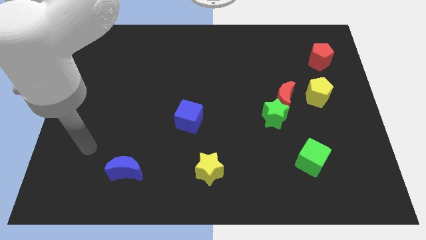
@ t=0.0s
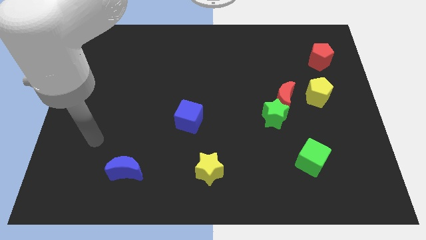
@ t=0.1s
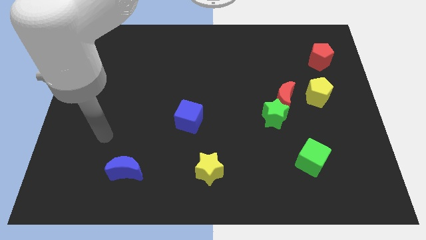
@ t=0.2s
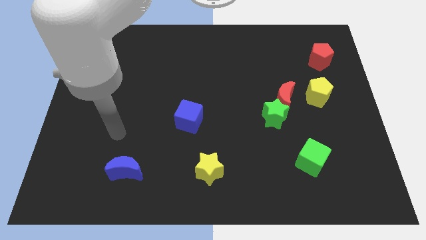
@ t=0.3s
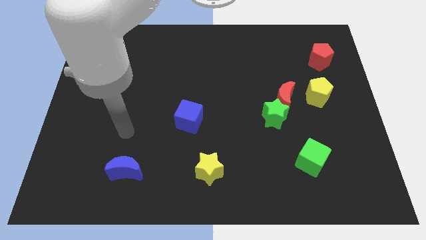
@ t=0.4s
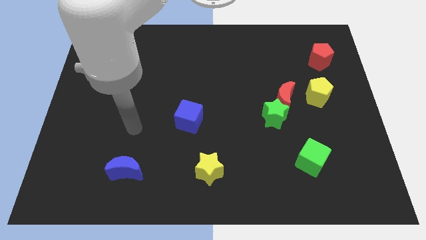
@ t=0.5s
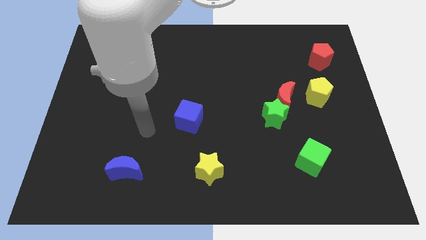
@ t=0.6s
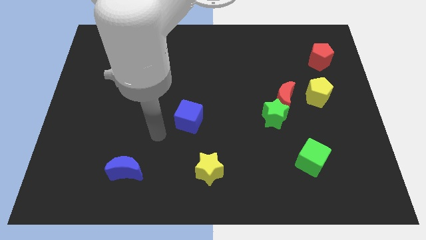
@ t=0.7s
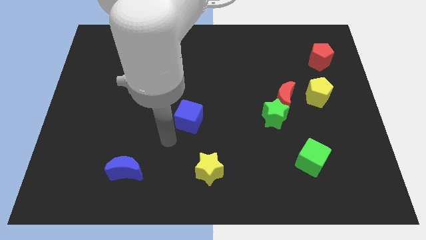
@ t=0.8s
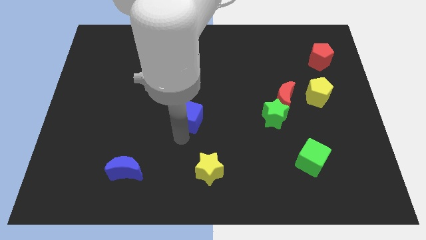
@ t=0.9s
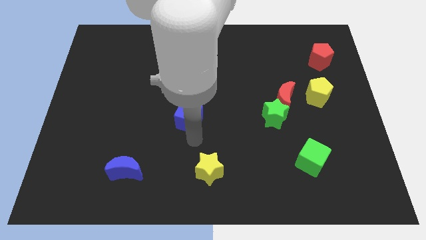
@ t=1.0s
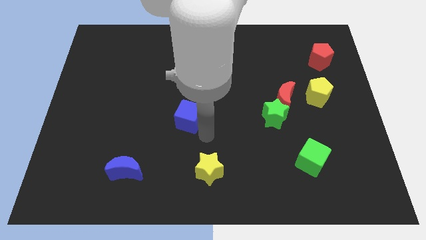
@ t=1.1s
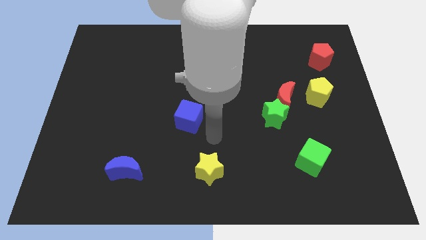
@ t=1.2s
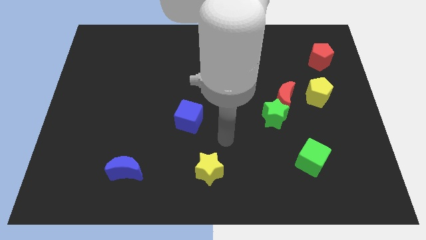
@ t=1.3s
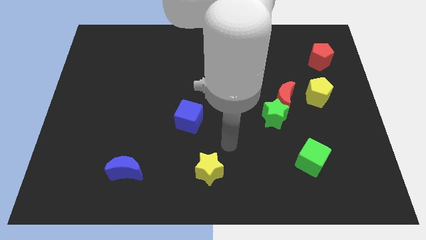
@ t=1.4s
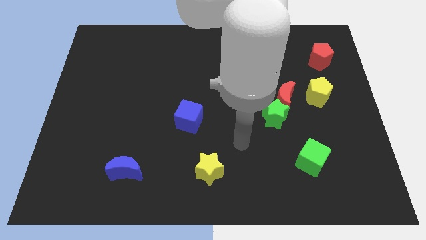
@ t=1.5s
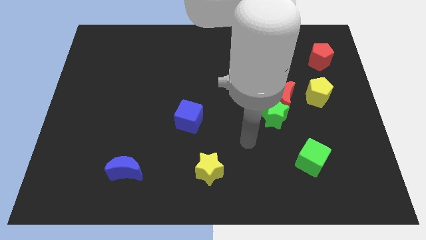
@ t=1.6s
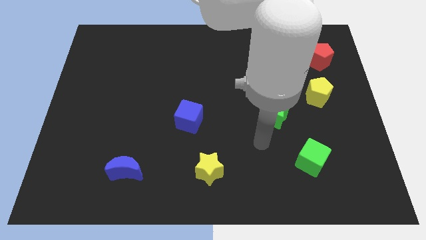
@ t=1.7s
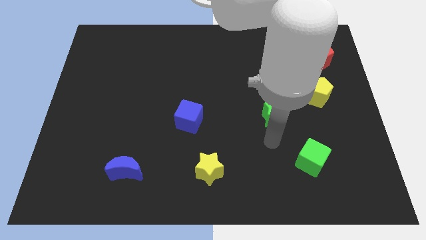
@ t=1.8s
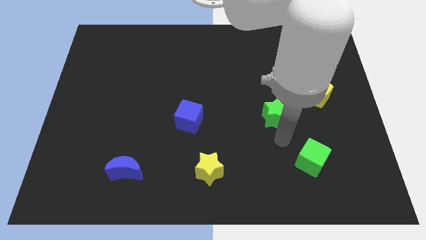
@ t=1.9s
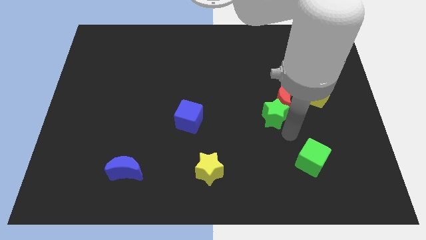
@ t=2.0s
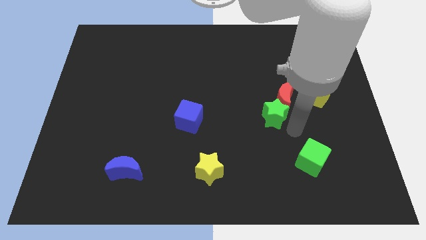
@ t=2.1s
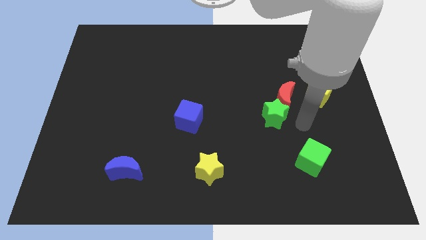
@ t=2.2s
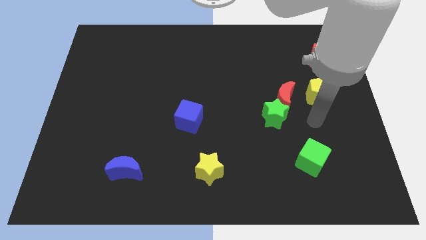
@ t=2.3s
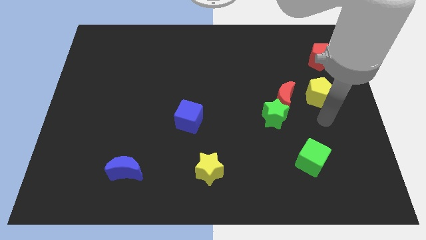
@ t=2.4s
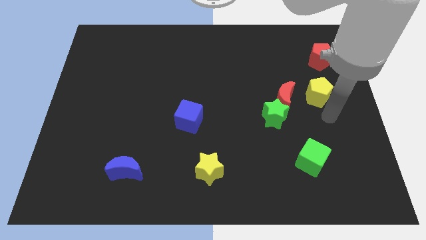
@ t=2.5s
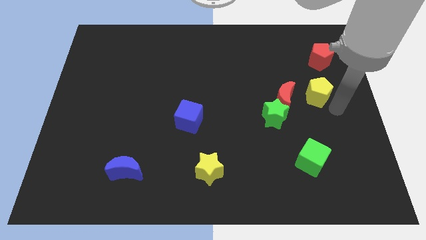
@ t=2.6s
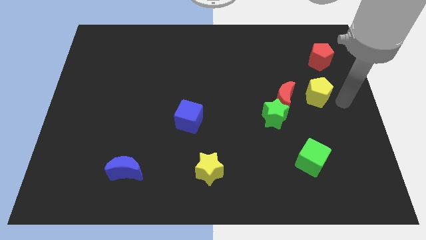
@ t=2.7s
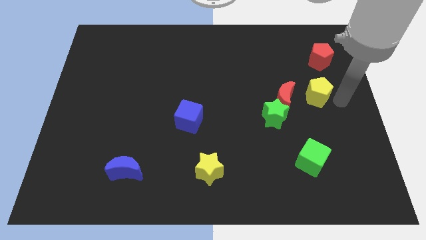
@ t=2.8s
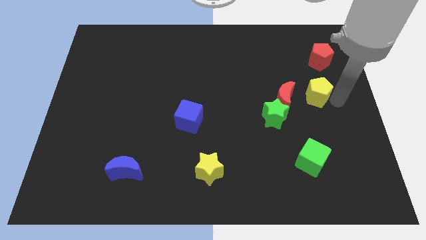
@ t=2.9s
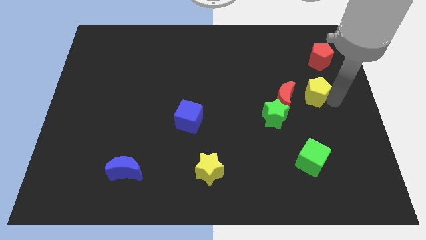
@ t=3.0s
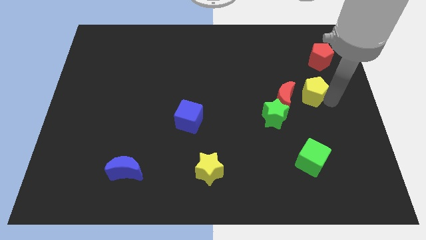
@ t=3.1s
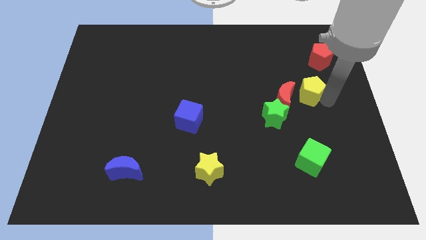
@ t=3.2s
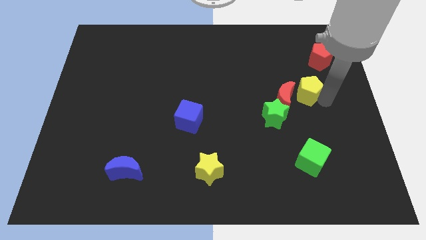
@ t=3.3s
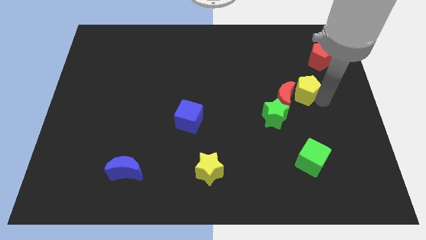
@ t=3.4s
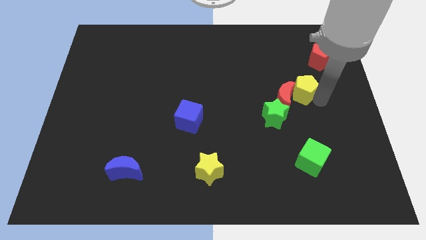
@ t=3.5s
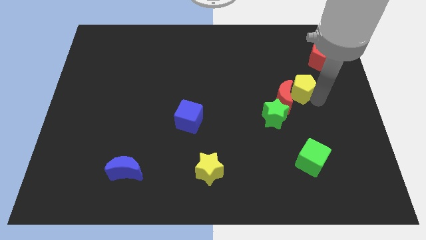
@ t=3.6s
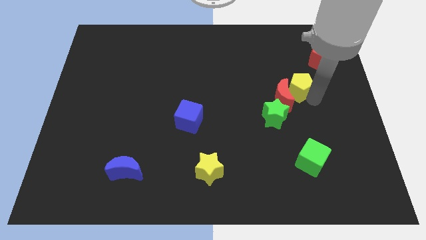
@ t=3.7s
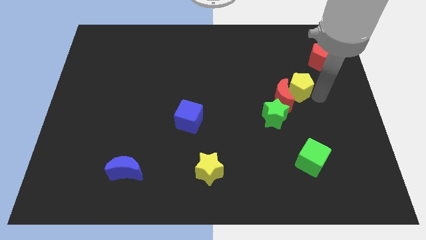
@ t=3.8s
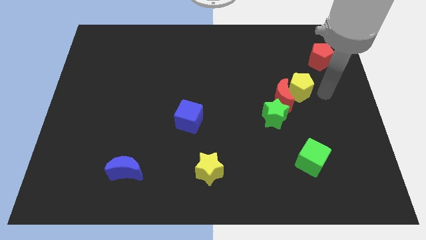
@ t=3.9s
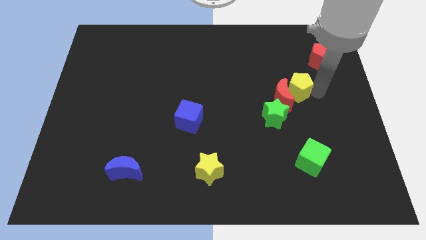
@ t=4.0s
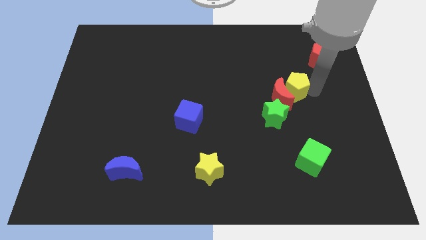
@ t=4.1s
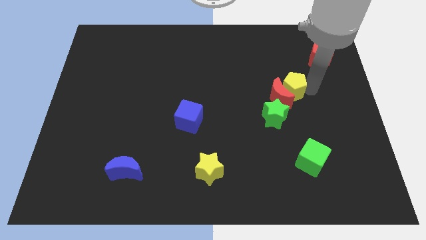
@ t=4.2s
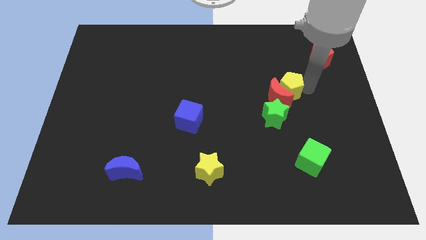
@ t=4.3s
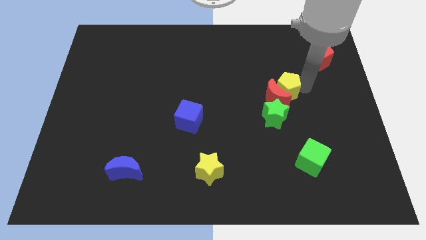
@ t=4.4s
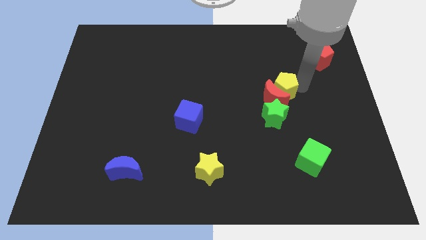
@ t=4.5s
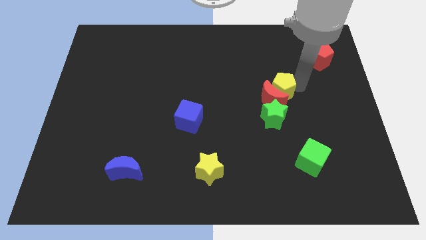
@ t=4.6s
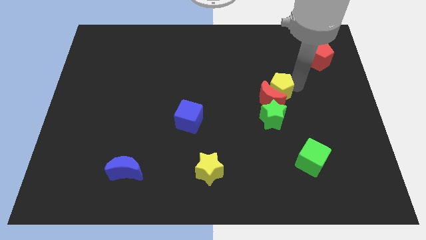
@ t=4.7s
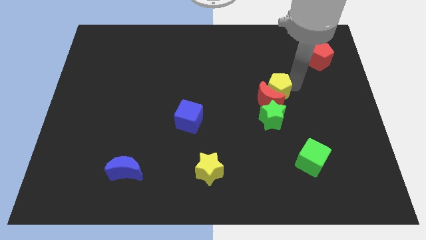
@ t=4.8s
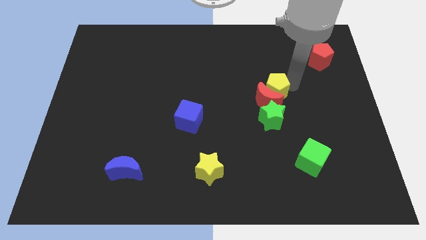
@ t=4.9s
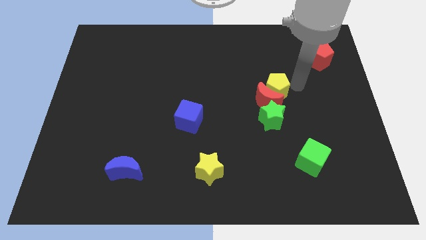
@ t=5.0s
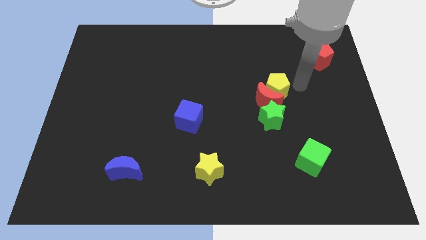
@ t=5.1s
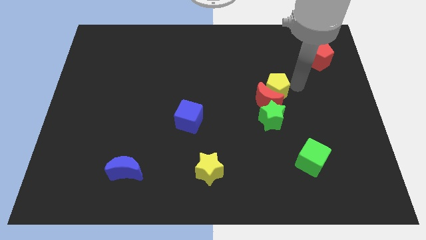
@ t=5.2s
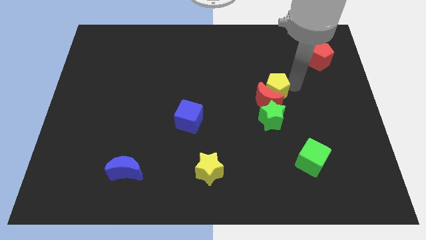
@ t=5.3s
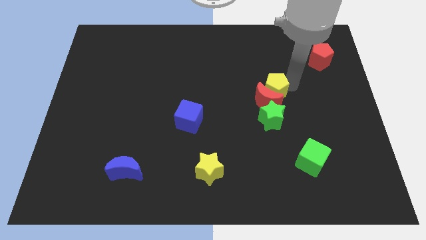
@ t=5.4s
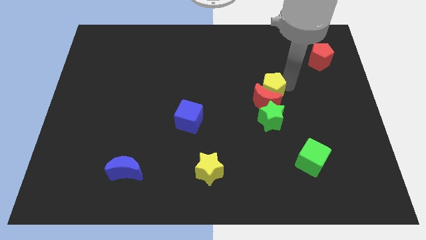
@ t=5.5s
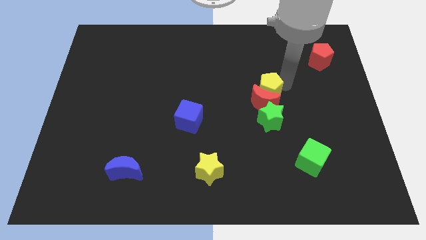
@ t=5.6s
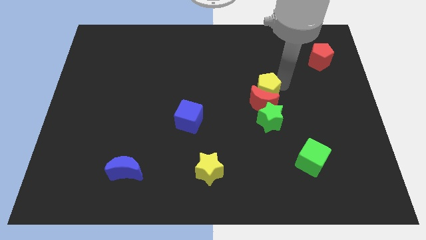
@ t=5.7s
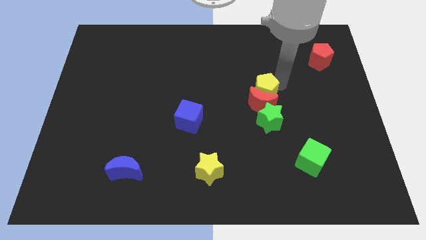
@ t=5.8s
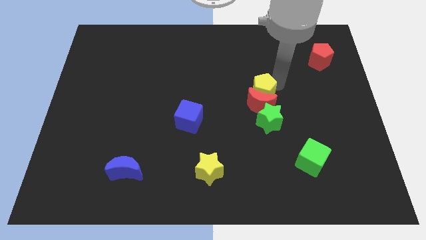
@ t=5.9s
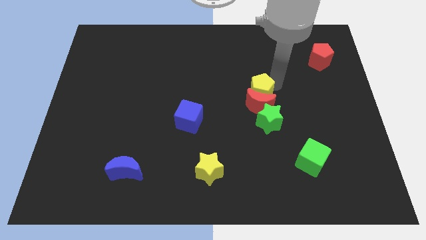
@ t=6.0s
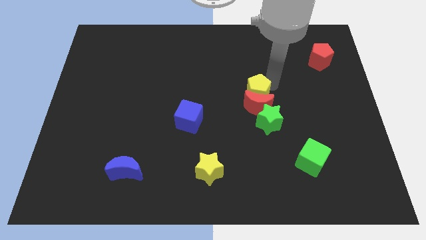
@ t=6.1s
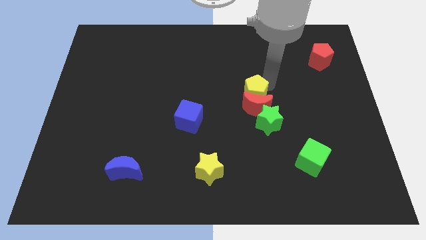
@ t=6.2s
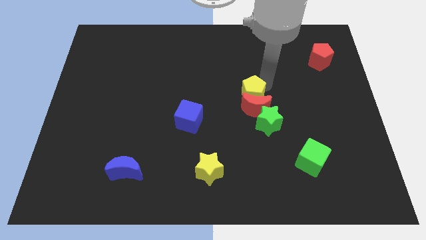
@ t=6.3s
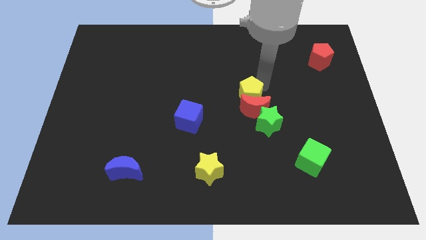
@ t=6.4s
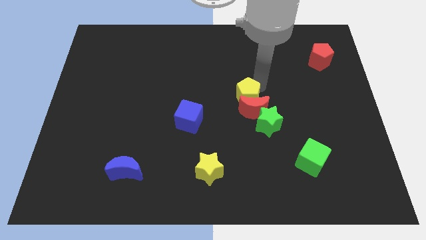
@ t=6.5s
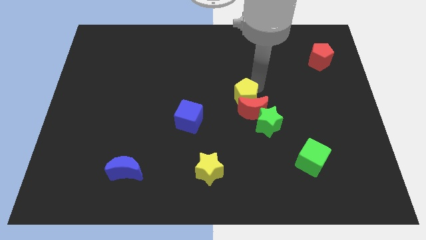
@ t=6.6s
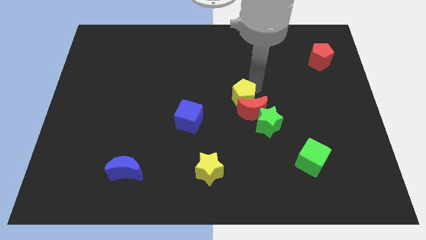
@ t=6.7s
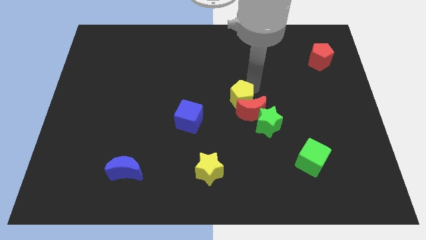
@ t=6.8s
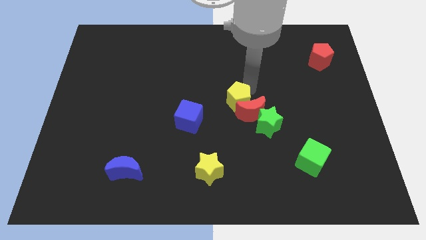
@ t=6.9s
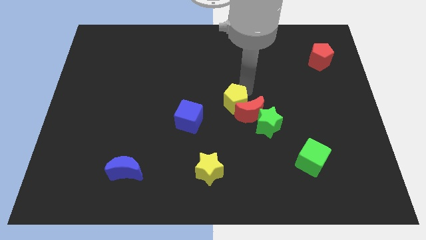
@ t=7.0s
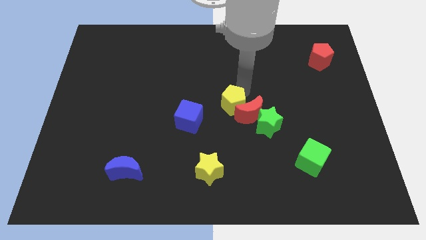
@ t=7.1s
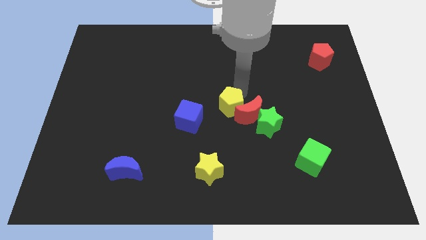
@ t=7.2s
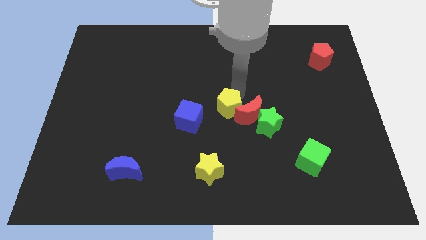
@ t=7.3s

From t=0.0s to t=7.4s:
slide the yellow pentagon to the left of the green star

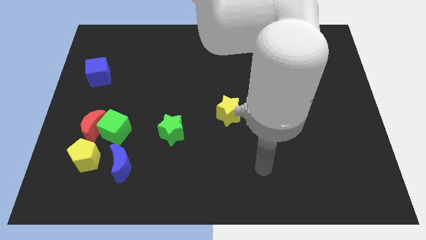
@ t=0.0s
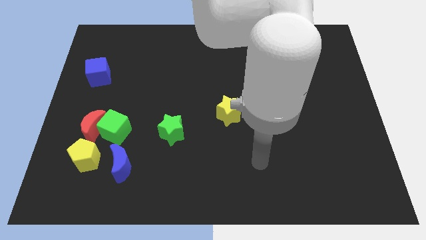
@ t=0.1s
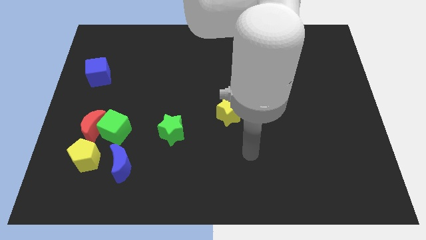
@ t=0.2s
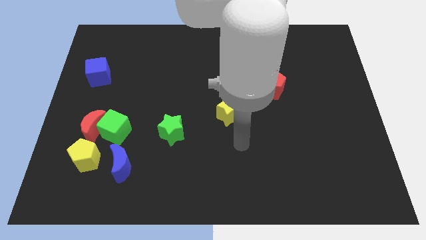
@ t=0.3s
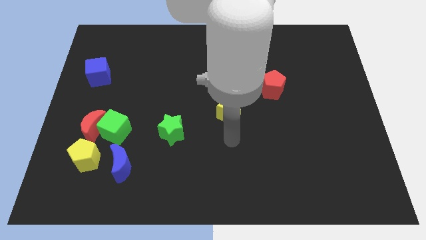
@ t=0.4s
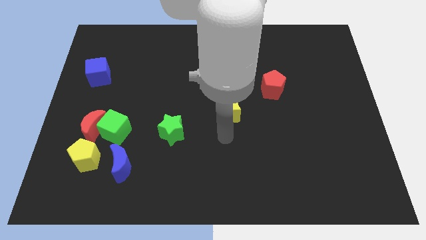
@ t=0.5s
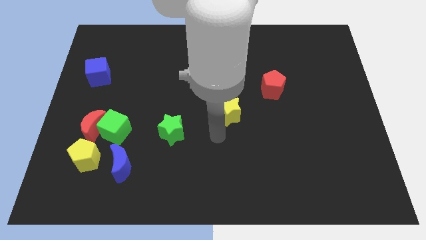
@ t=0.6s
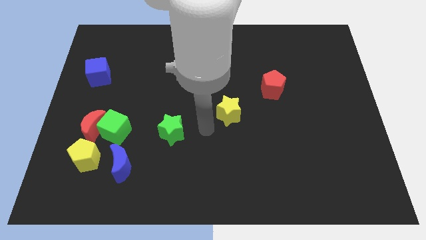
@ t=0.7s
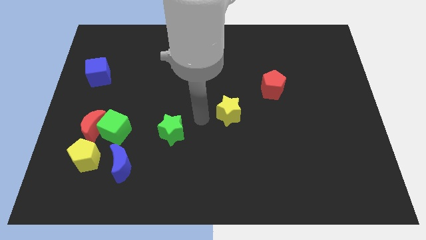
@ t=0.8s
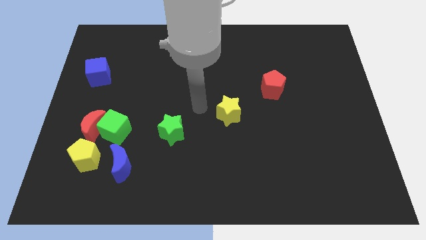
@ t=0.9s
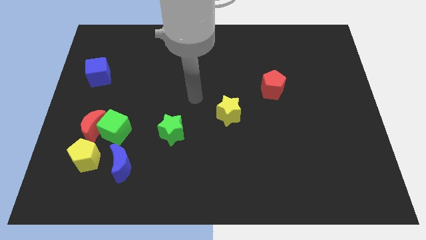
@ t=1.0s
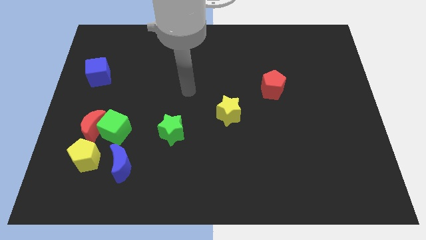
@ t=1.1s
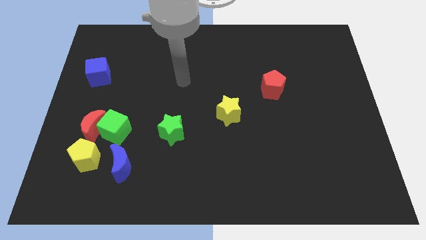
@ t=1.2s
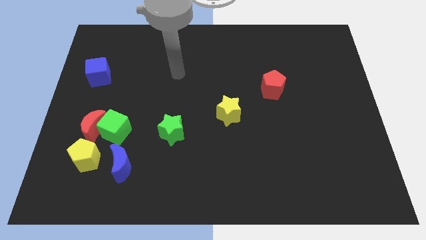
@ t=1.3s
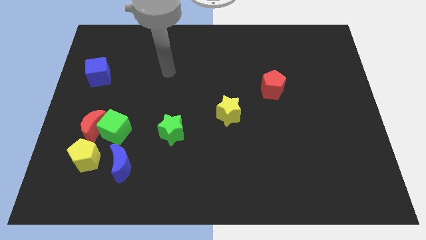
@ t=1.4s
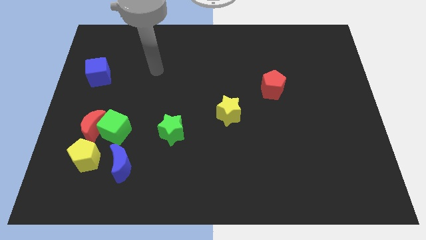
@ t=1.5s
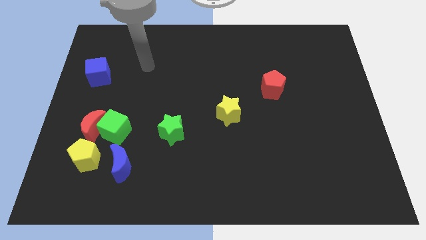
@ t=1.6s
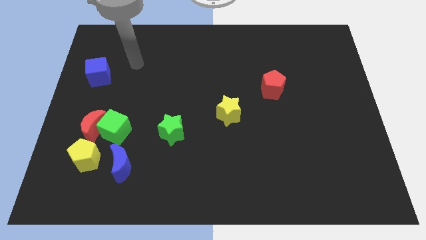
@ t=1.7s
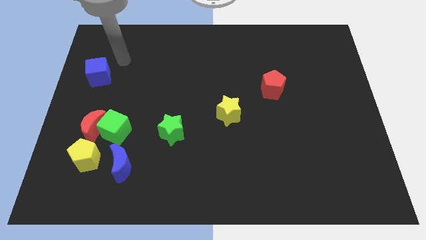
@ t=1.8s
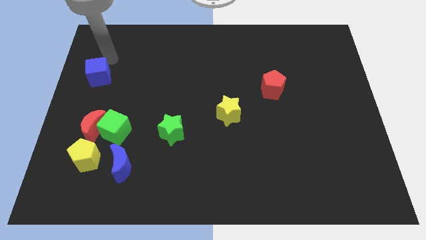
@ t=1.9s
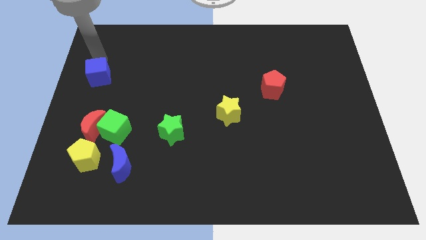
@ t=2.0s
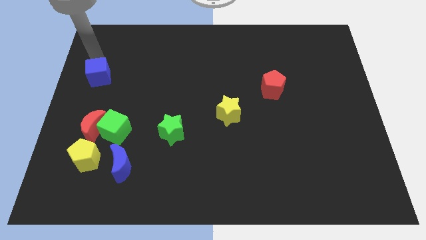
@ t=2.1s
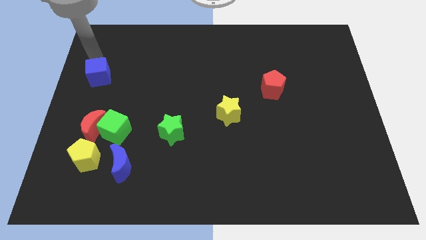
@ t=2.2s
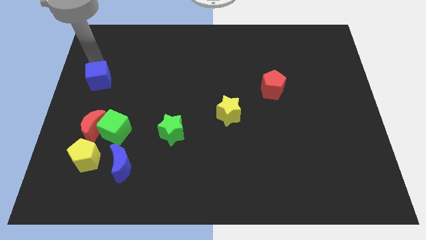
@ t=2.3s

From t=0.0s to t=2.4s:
put the blue cube to the top of the red moon
